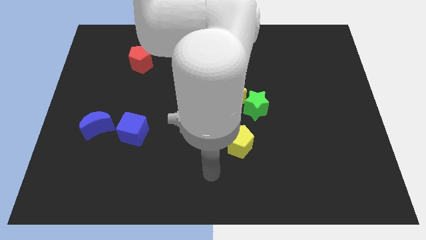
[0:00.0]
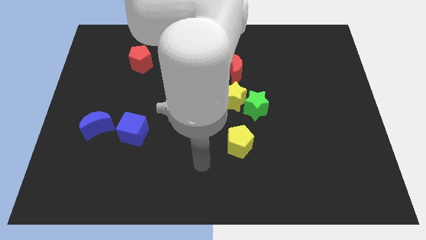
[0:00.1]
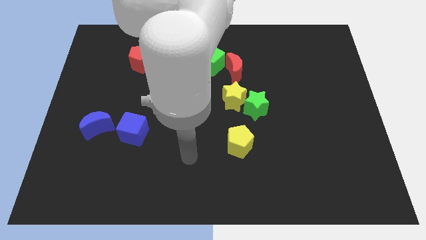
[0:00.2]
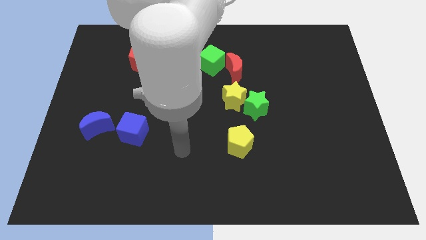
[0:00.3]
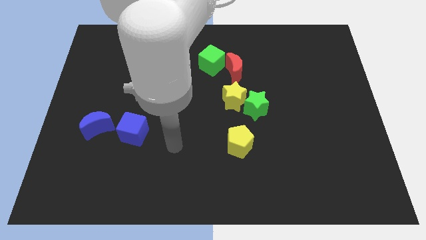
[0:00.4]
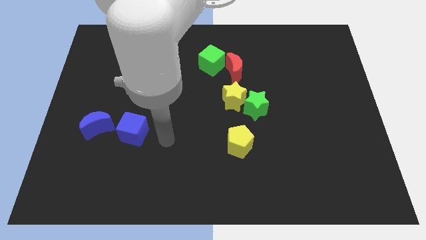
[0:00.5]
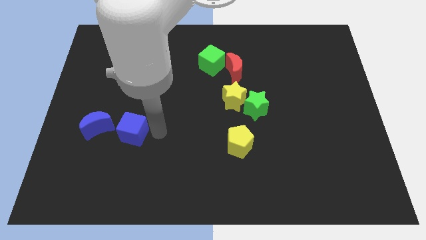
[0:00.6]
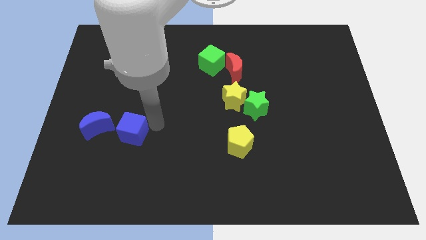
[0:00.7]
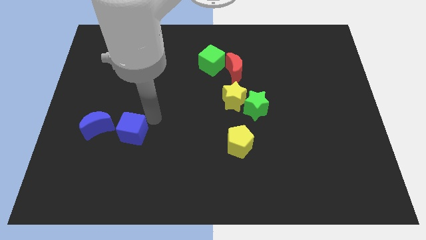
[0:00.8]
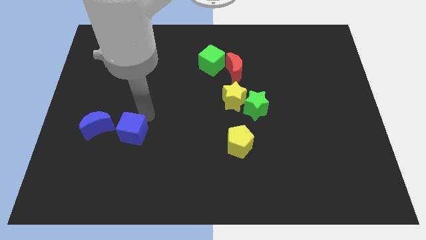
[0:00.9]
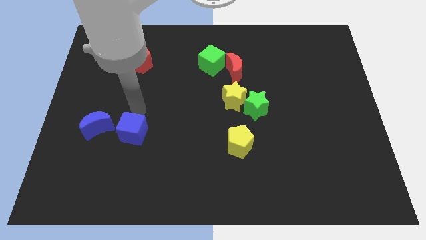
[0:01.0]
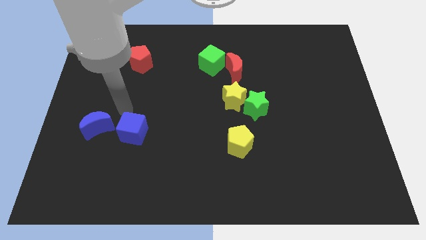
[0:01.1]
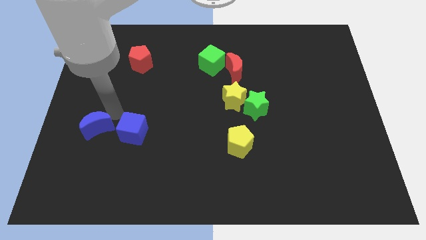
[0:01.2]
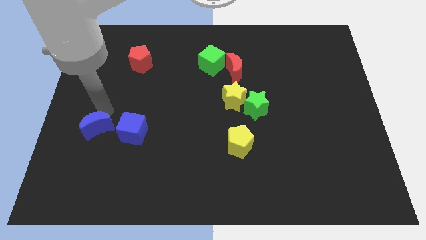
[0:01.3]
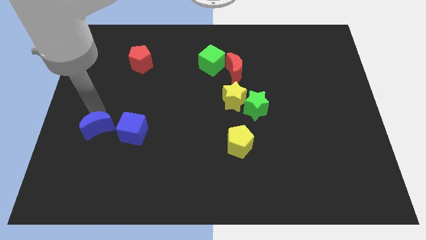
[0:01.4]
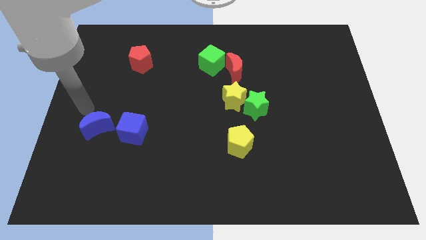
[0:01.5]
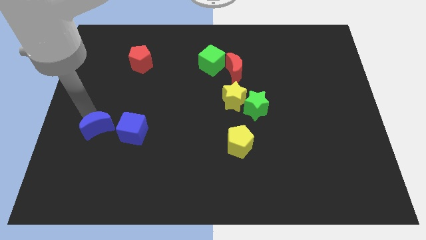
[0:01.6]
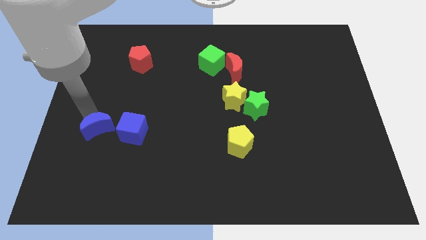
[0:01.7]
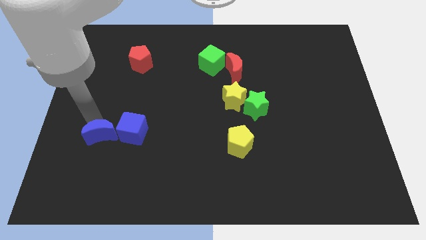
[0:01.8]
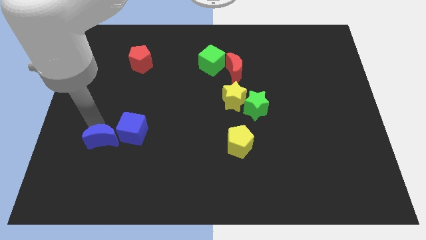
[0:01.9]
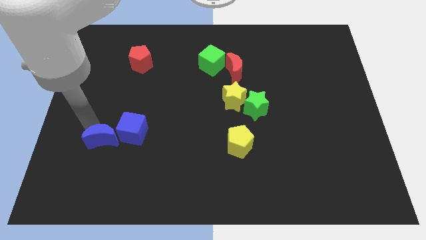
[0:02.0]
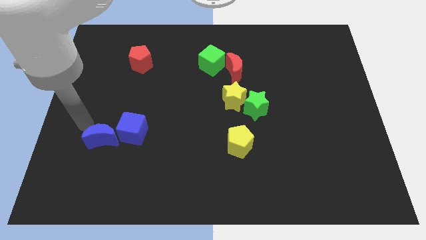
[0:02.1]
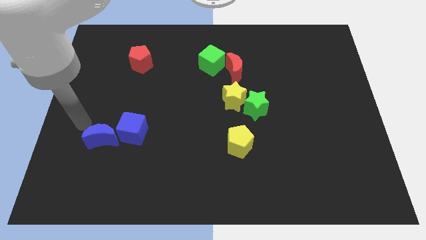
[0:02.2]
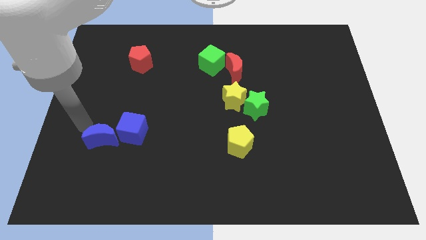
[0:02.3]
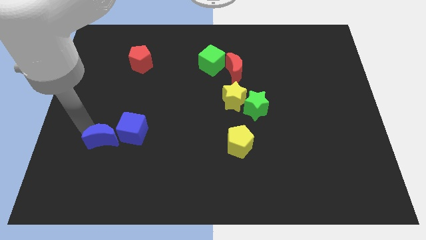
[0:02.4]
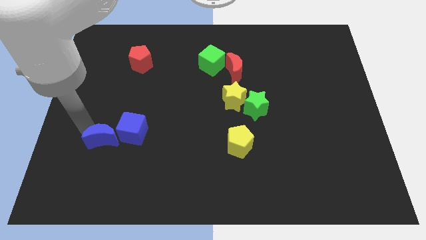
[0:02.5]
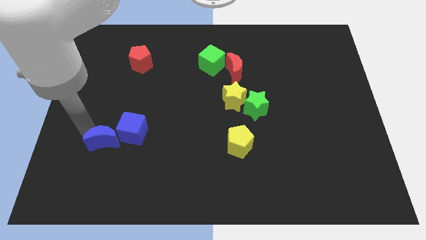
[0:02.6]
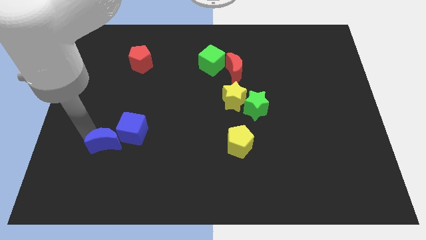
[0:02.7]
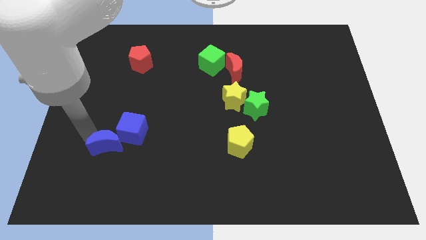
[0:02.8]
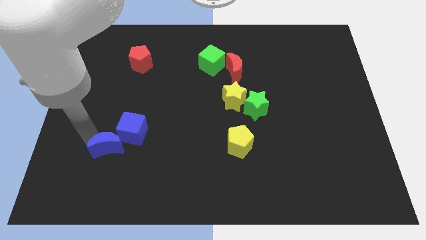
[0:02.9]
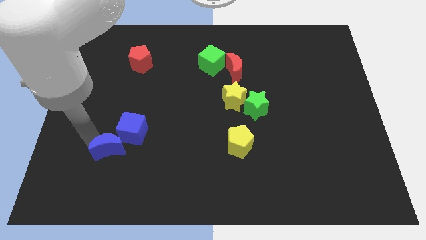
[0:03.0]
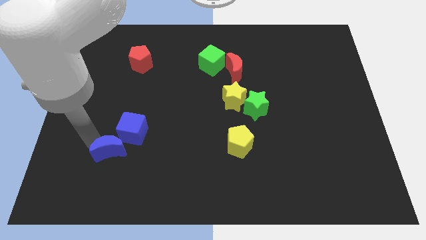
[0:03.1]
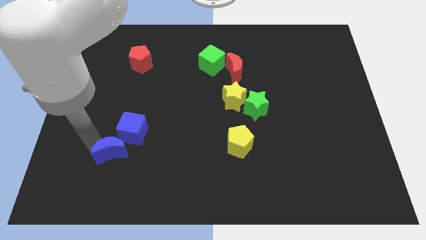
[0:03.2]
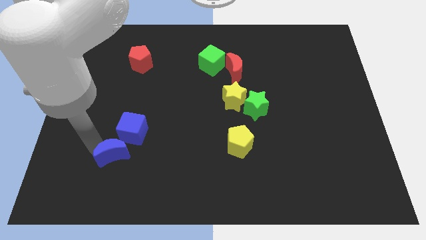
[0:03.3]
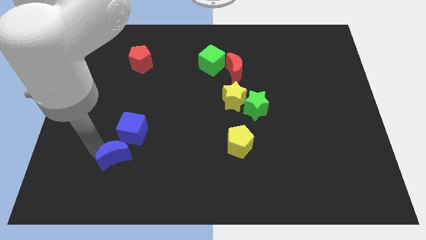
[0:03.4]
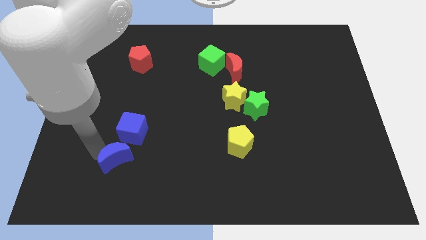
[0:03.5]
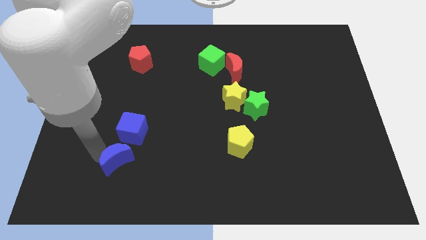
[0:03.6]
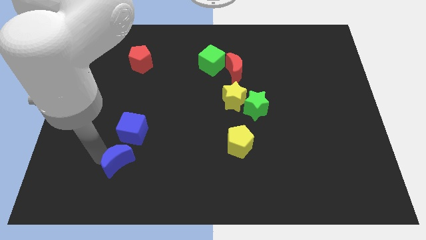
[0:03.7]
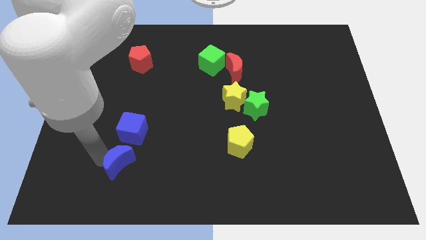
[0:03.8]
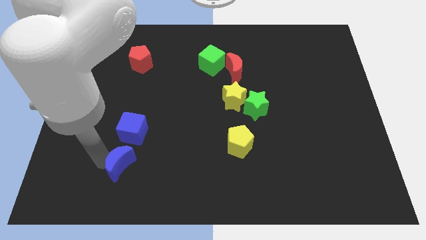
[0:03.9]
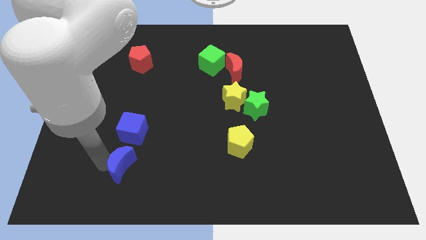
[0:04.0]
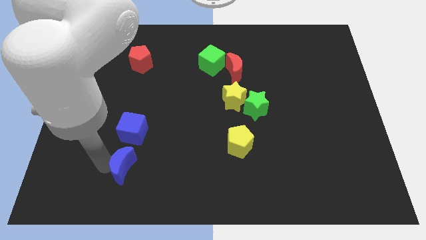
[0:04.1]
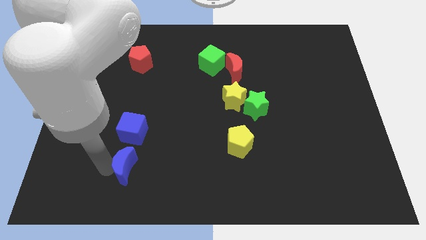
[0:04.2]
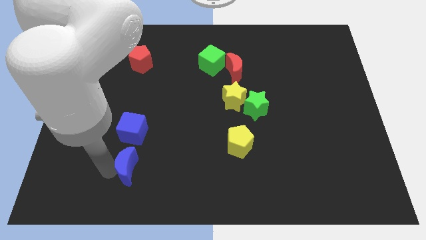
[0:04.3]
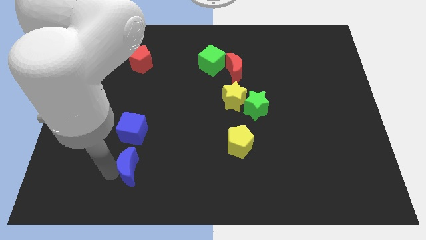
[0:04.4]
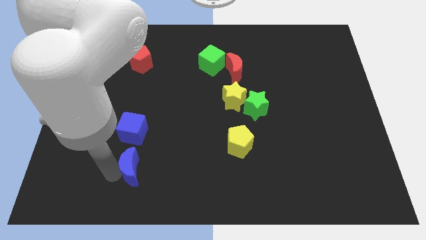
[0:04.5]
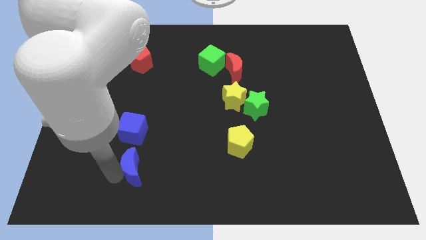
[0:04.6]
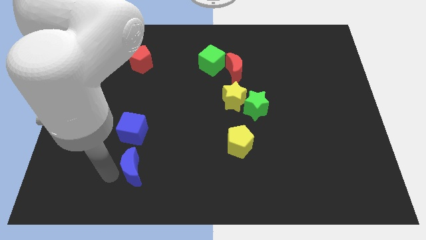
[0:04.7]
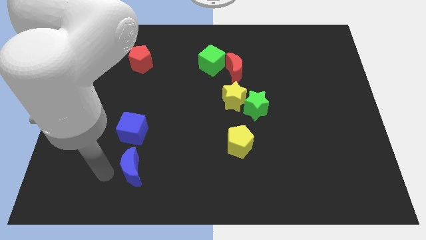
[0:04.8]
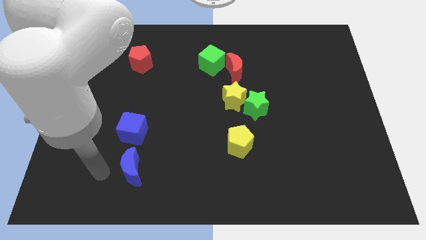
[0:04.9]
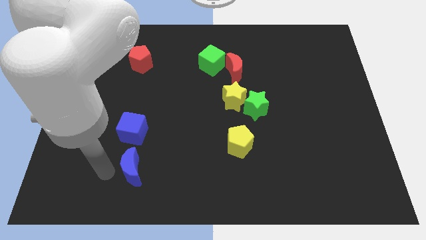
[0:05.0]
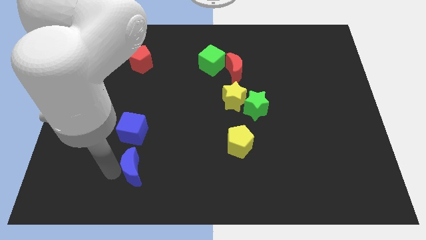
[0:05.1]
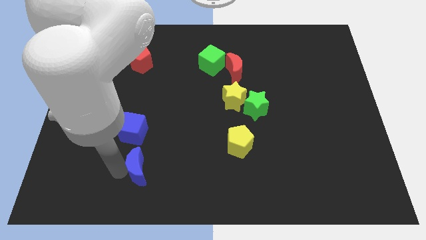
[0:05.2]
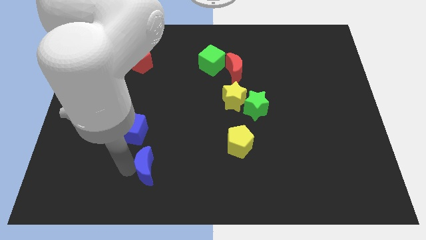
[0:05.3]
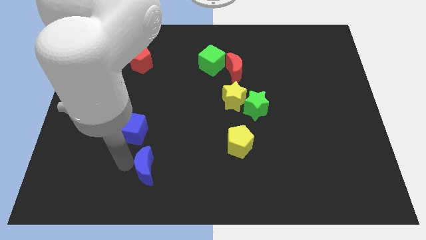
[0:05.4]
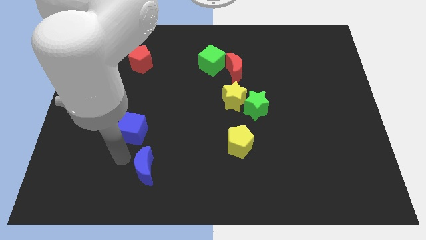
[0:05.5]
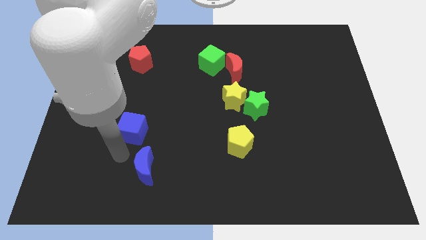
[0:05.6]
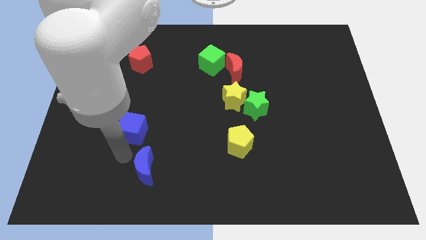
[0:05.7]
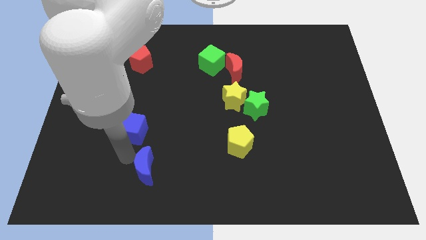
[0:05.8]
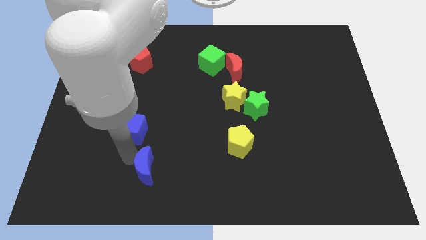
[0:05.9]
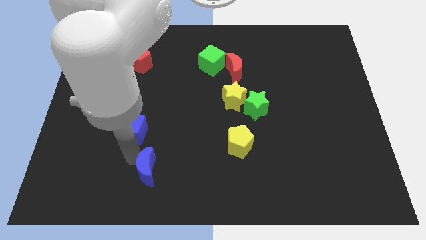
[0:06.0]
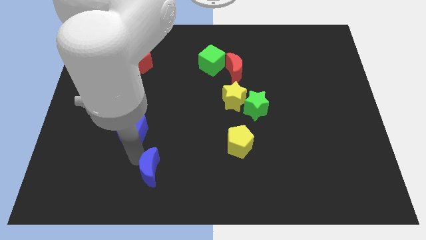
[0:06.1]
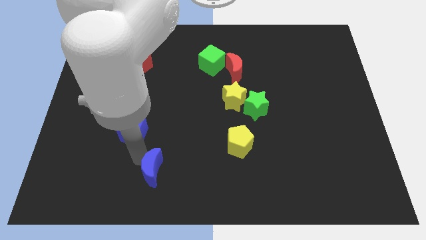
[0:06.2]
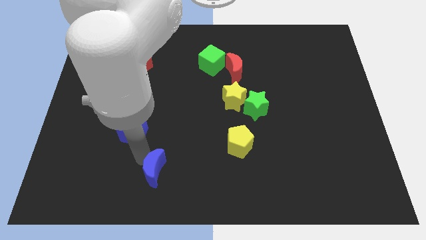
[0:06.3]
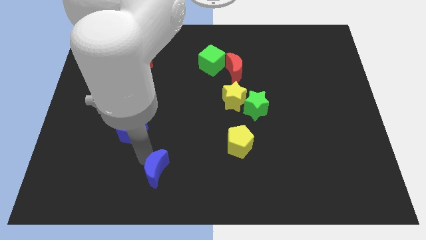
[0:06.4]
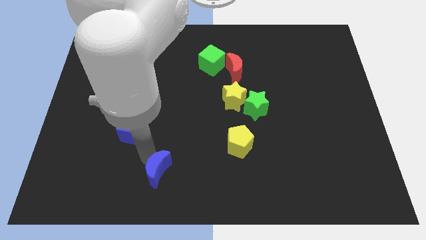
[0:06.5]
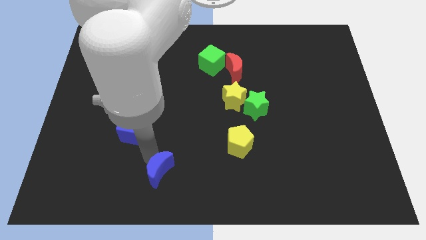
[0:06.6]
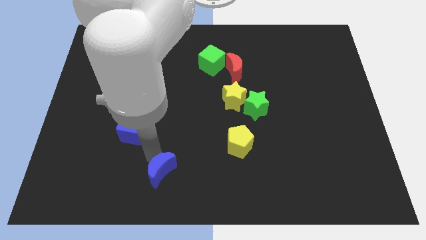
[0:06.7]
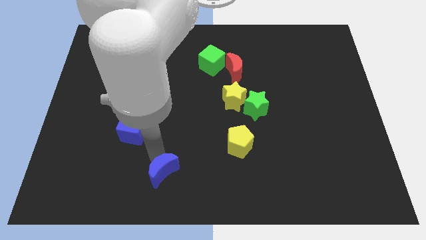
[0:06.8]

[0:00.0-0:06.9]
slide the blue moon to the bottom

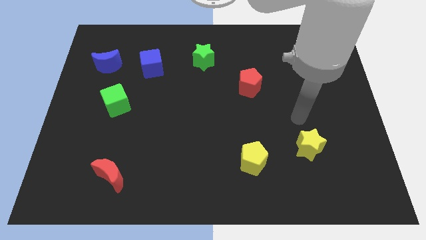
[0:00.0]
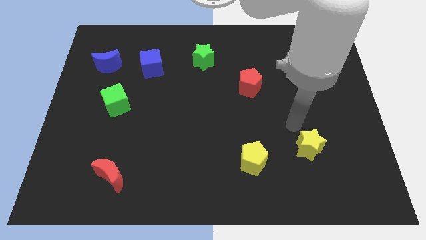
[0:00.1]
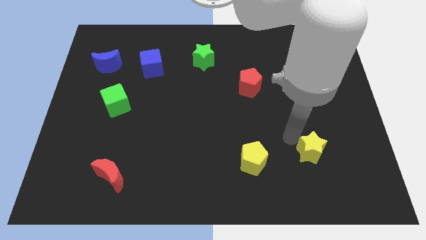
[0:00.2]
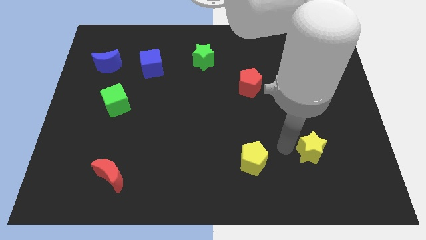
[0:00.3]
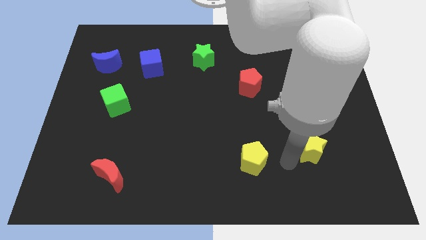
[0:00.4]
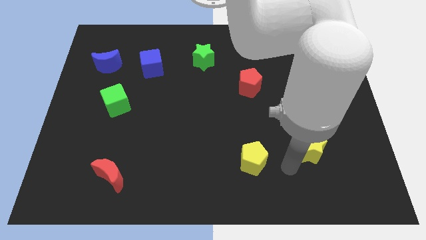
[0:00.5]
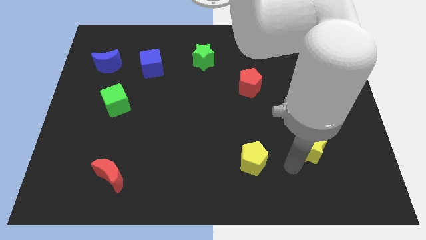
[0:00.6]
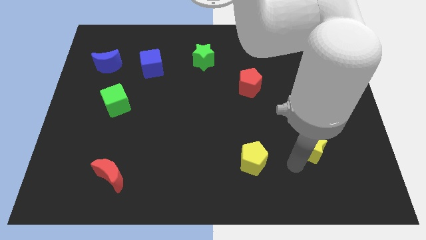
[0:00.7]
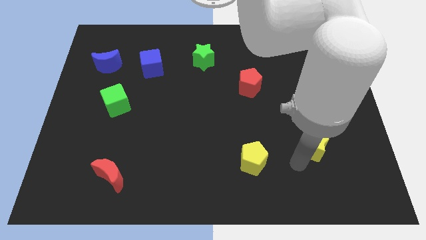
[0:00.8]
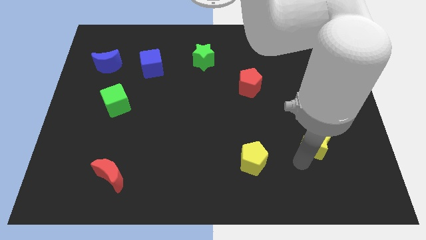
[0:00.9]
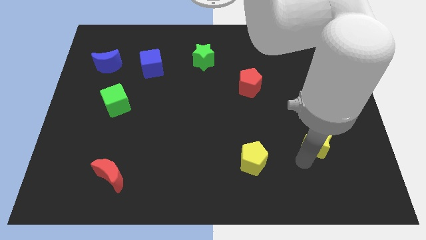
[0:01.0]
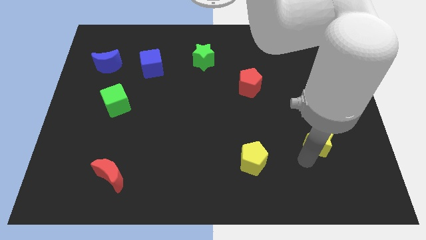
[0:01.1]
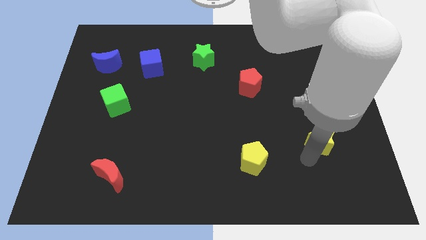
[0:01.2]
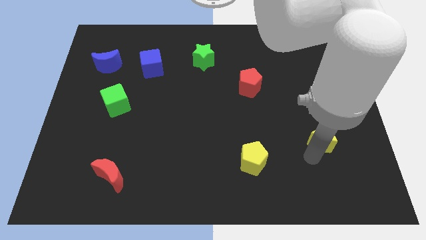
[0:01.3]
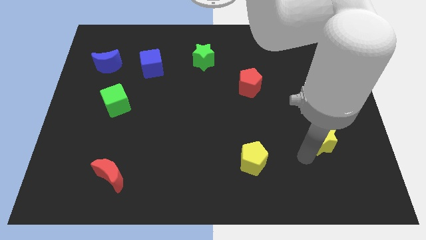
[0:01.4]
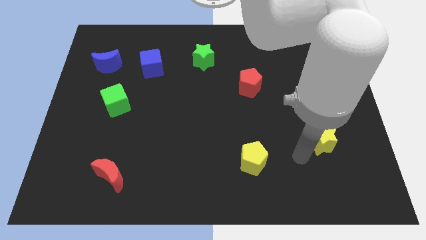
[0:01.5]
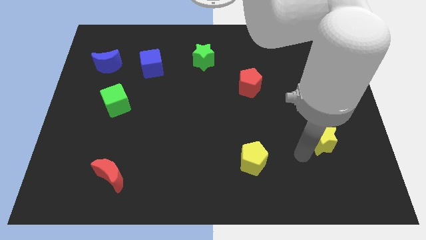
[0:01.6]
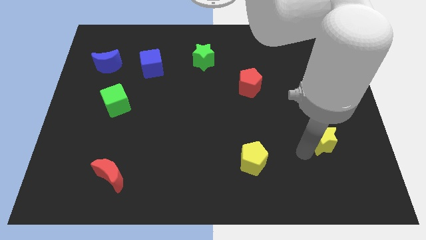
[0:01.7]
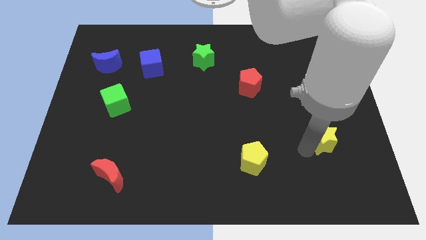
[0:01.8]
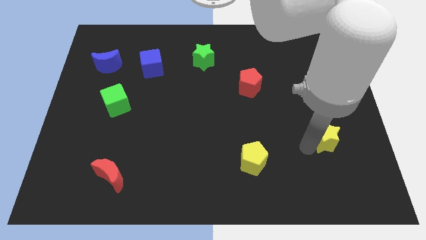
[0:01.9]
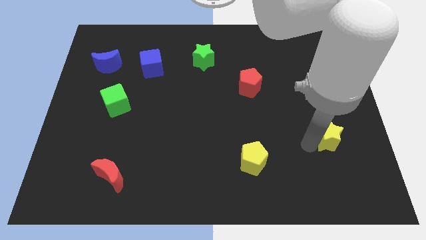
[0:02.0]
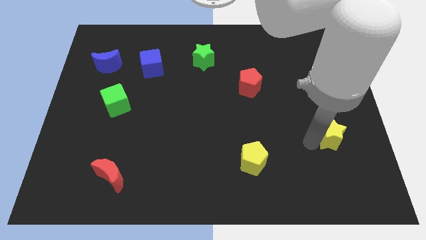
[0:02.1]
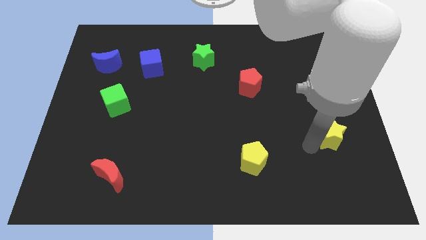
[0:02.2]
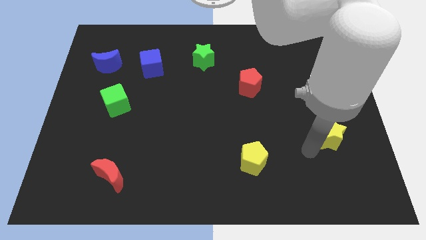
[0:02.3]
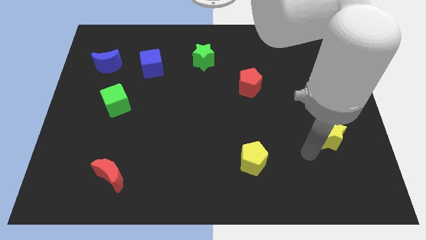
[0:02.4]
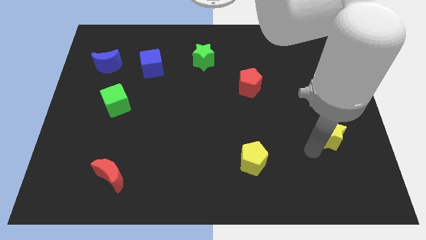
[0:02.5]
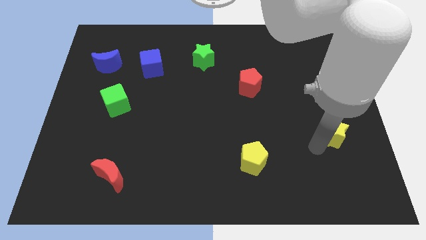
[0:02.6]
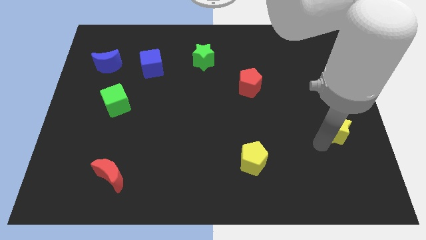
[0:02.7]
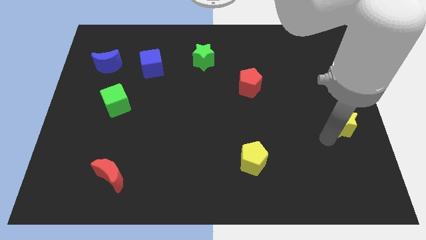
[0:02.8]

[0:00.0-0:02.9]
put the yellow star to the right side
